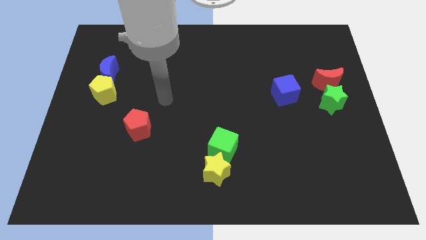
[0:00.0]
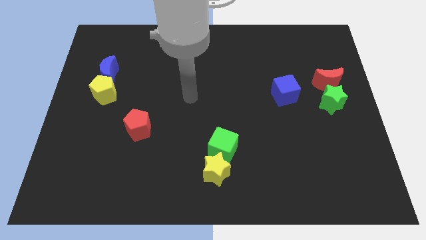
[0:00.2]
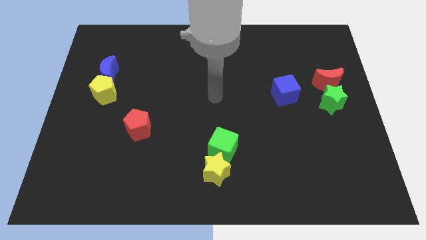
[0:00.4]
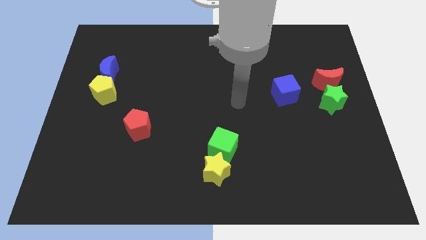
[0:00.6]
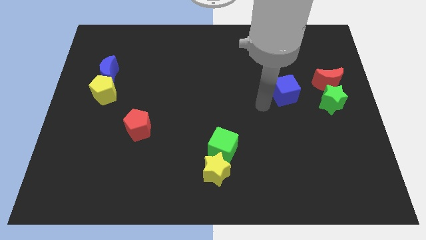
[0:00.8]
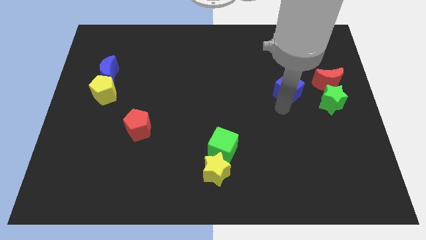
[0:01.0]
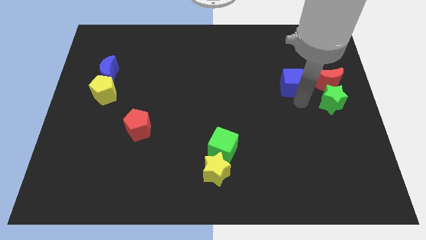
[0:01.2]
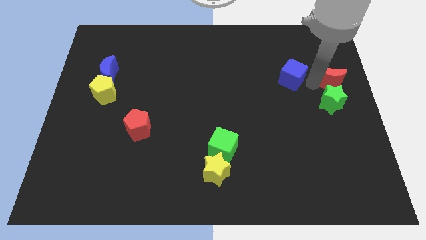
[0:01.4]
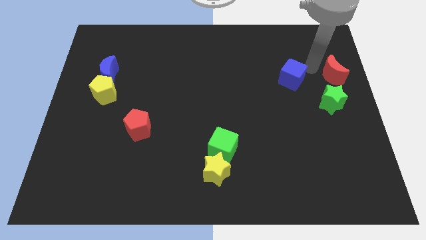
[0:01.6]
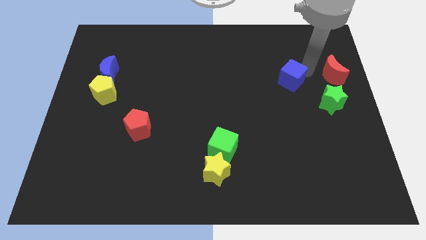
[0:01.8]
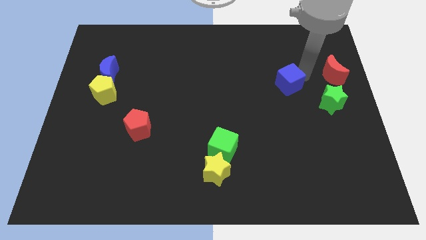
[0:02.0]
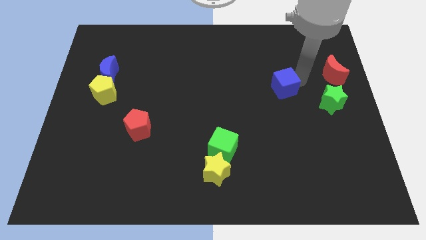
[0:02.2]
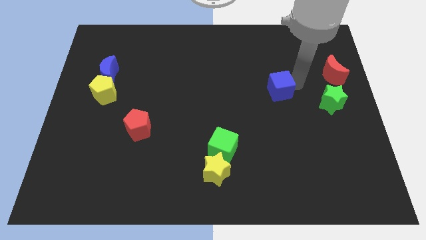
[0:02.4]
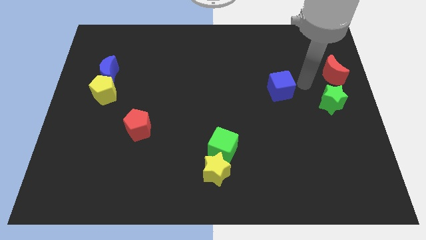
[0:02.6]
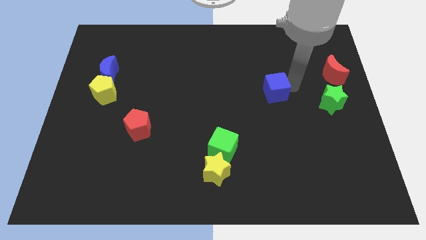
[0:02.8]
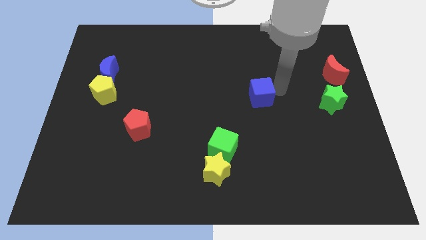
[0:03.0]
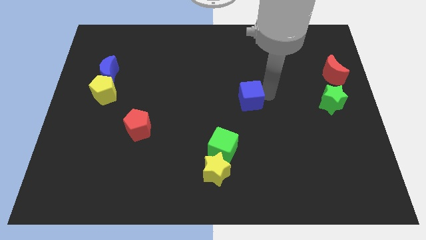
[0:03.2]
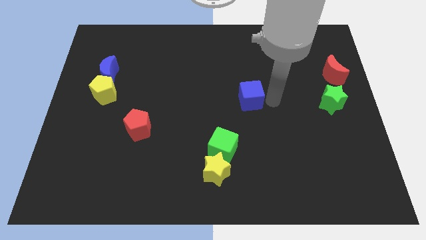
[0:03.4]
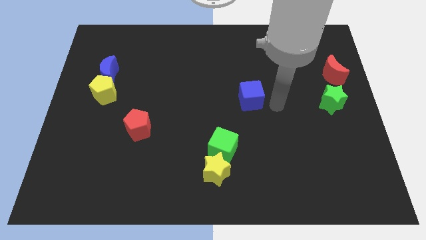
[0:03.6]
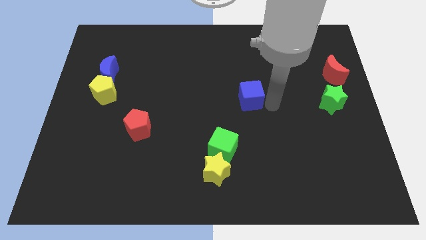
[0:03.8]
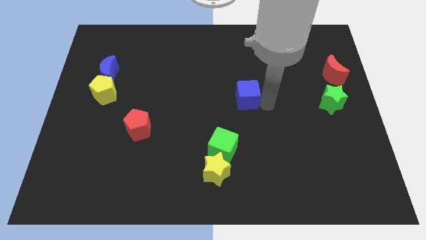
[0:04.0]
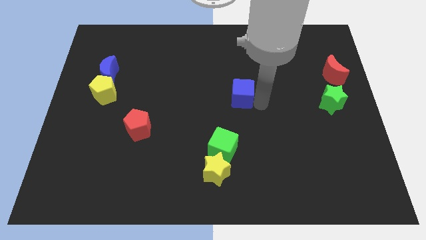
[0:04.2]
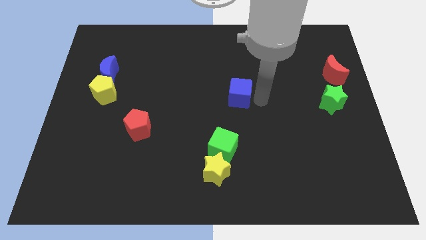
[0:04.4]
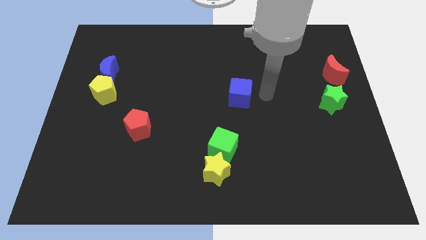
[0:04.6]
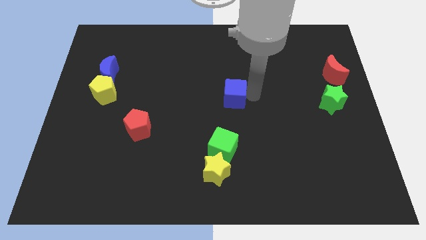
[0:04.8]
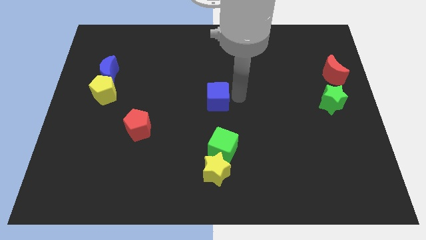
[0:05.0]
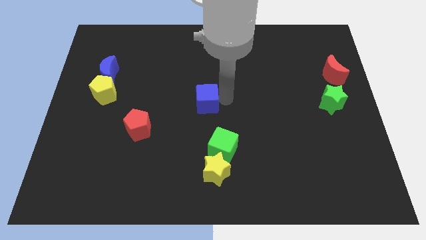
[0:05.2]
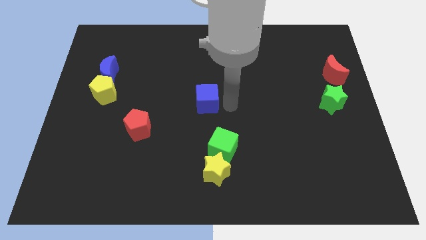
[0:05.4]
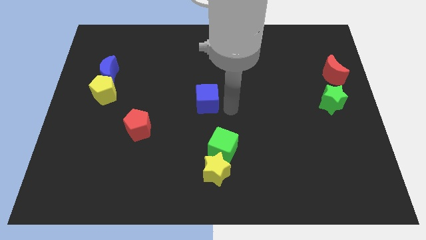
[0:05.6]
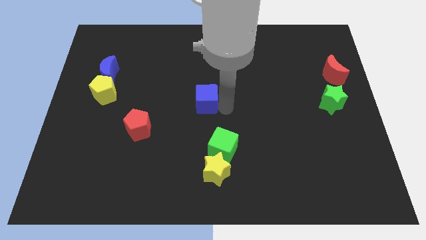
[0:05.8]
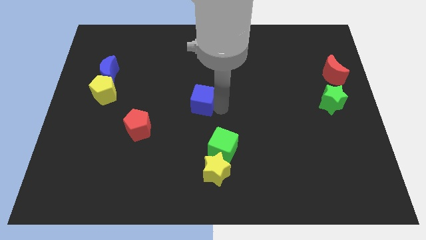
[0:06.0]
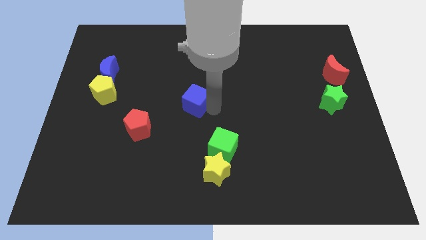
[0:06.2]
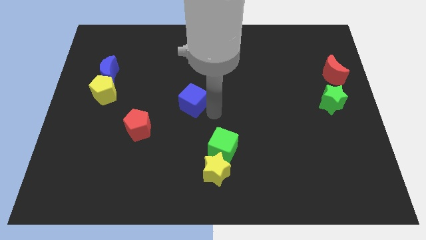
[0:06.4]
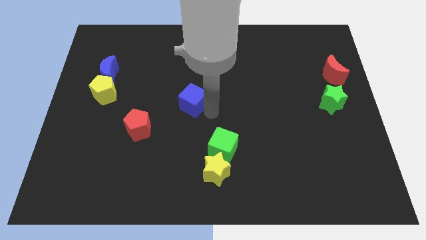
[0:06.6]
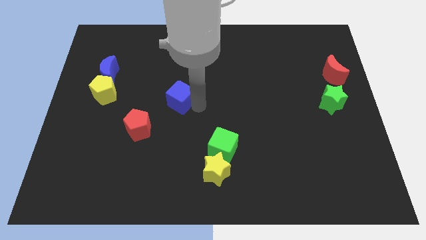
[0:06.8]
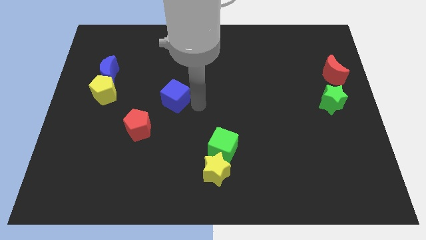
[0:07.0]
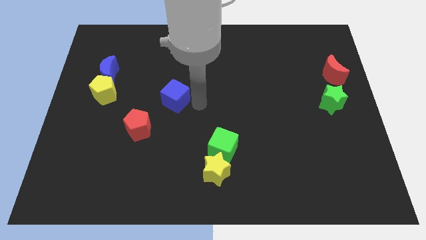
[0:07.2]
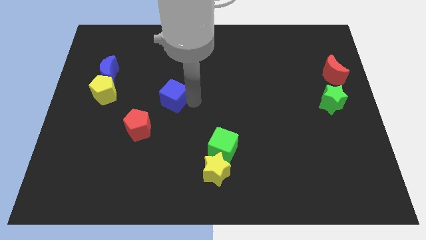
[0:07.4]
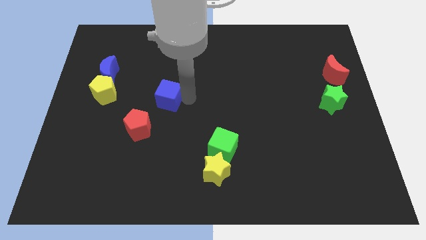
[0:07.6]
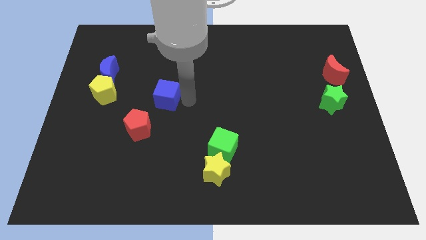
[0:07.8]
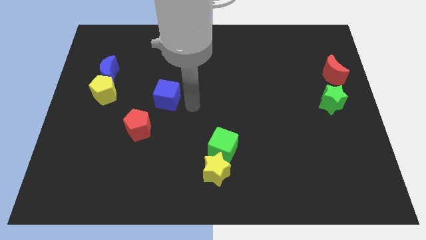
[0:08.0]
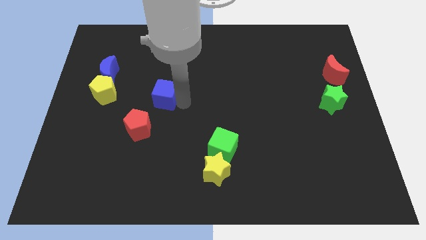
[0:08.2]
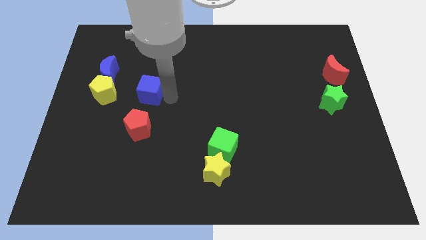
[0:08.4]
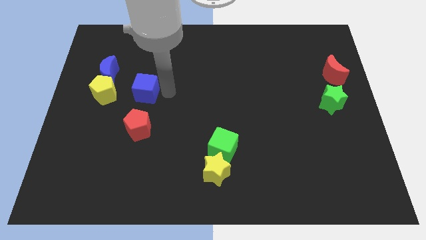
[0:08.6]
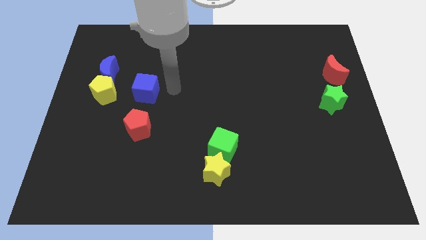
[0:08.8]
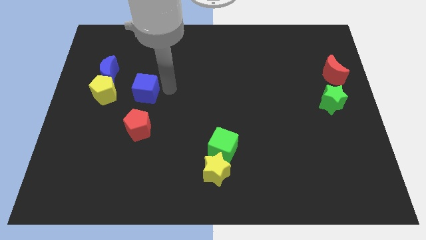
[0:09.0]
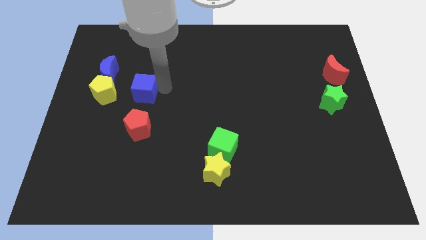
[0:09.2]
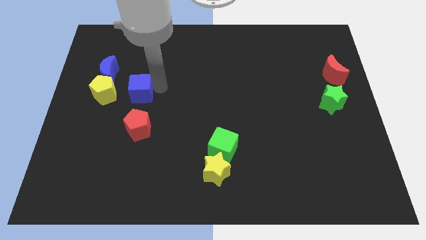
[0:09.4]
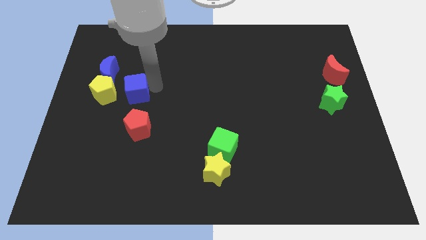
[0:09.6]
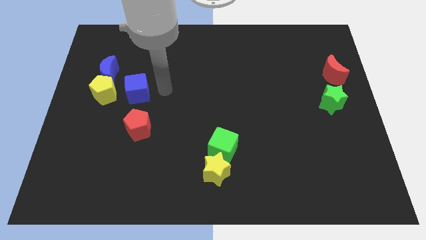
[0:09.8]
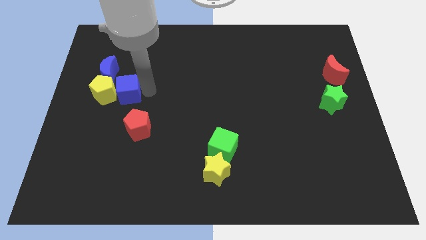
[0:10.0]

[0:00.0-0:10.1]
move the blue cube close to the yellow pentagon

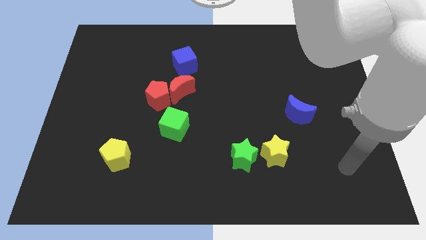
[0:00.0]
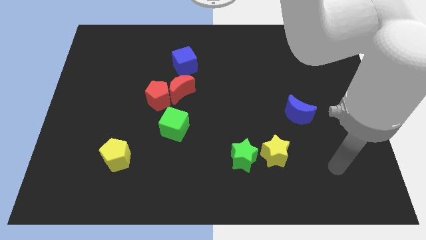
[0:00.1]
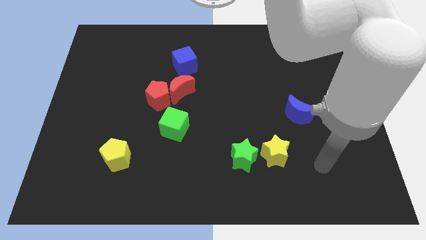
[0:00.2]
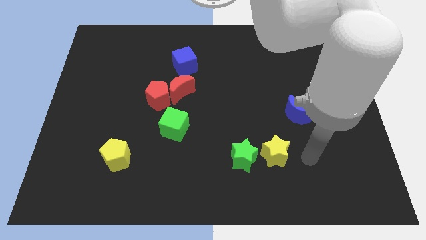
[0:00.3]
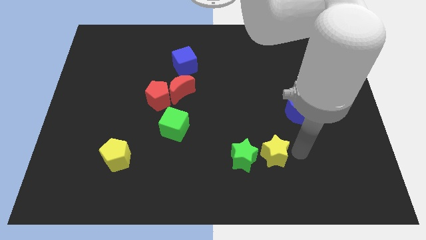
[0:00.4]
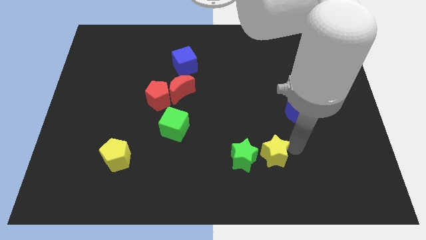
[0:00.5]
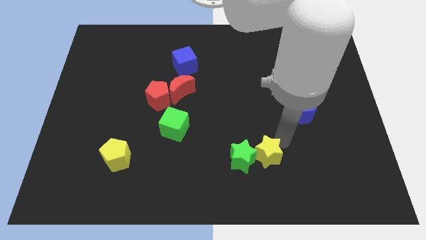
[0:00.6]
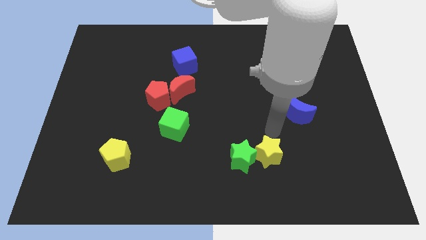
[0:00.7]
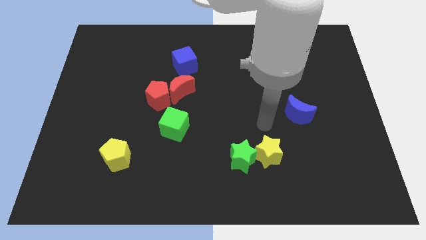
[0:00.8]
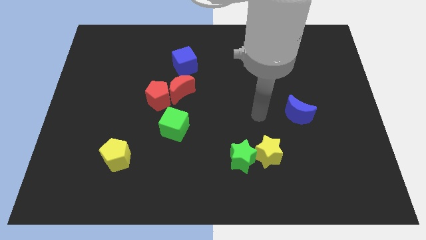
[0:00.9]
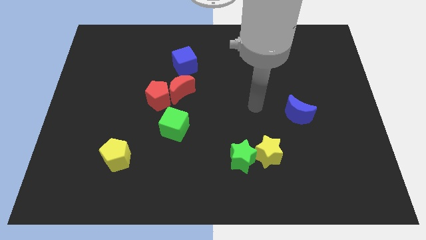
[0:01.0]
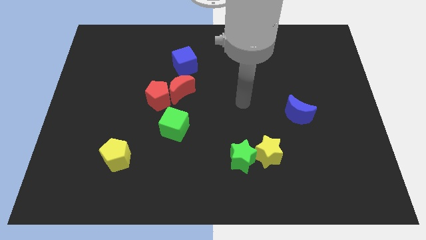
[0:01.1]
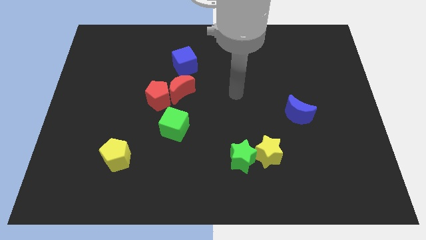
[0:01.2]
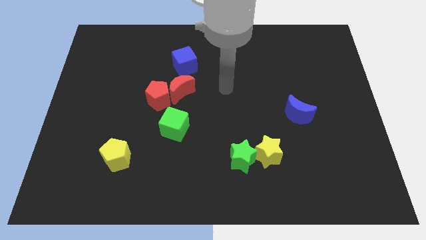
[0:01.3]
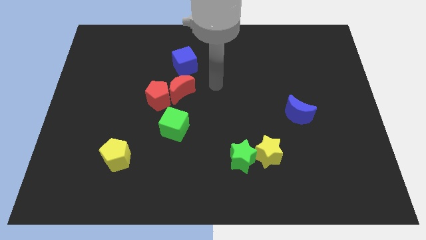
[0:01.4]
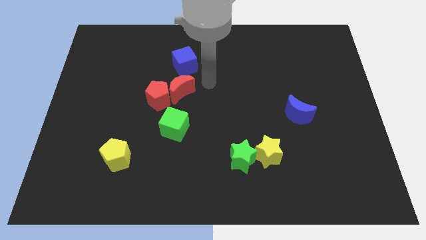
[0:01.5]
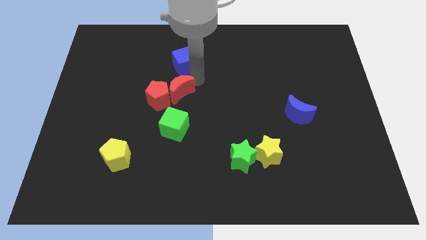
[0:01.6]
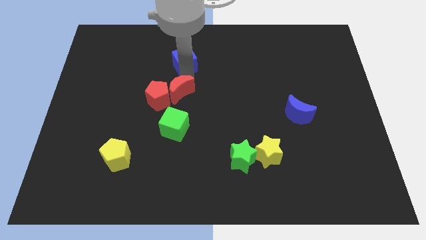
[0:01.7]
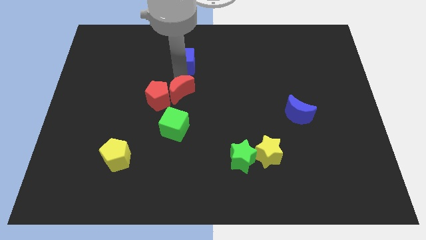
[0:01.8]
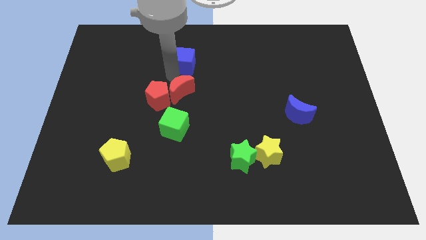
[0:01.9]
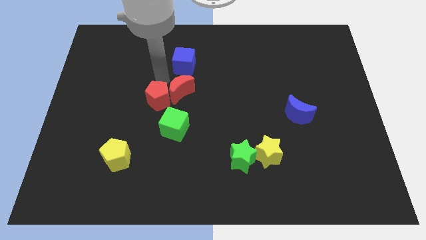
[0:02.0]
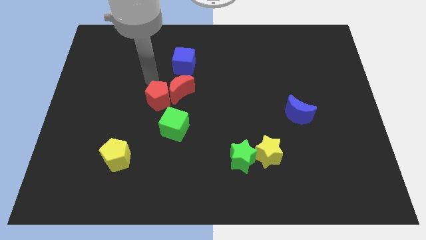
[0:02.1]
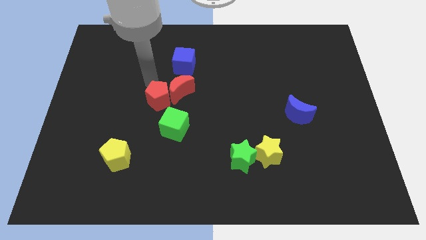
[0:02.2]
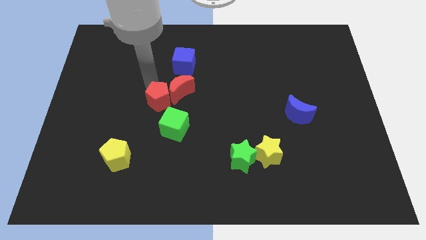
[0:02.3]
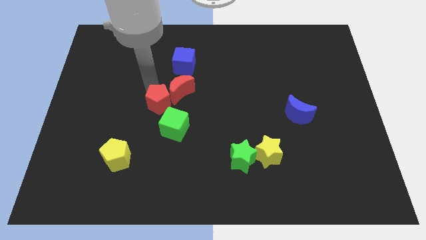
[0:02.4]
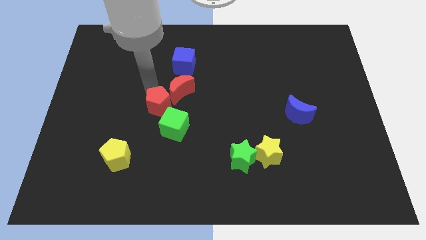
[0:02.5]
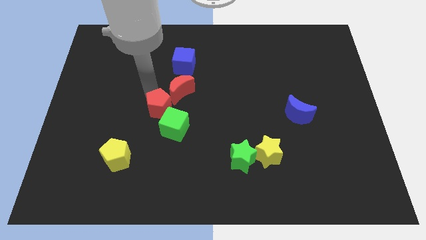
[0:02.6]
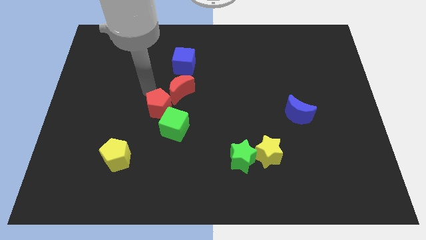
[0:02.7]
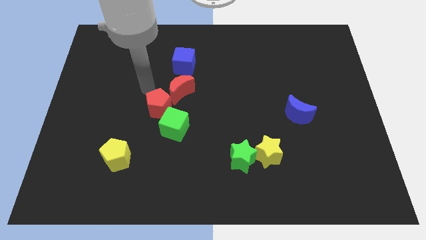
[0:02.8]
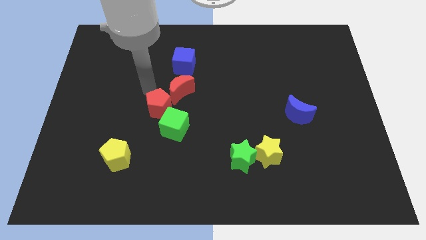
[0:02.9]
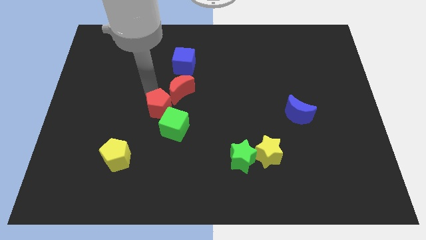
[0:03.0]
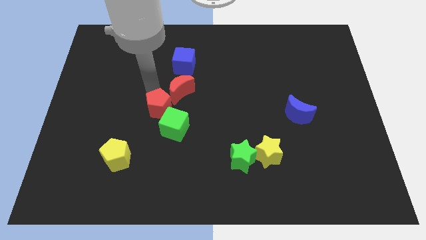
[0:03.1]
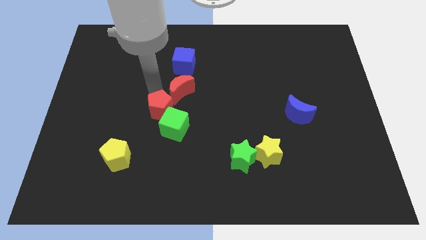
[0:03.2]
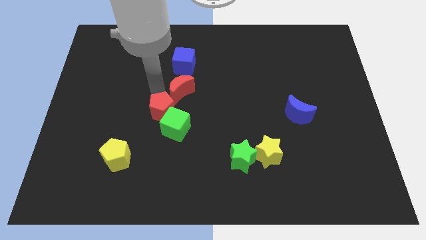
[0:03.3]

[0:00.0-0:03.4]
put the red pentagon close to the green cube
